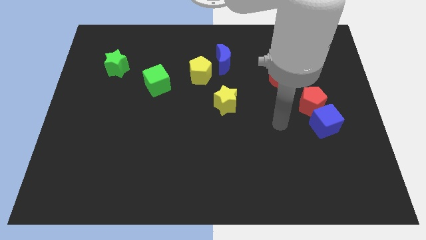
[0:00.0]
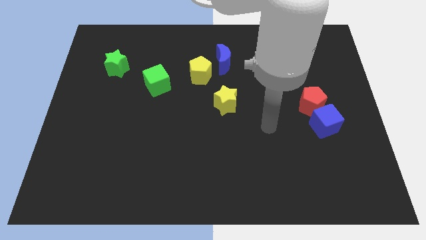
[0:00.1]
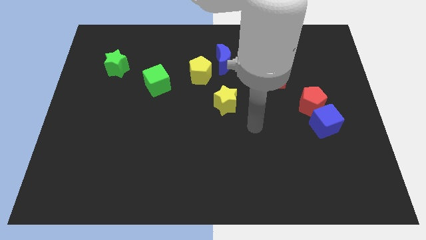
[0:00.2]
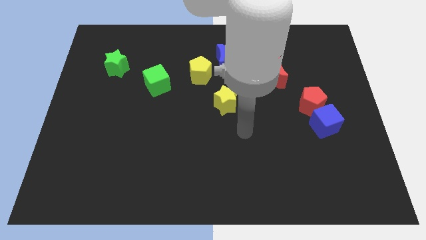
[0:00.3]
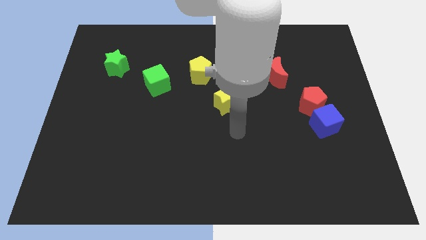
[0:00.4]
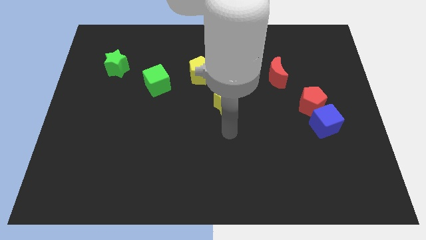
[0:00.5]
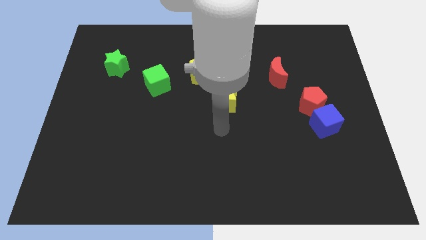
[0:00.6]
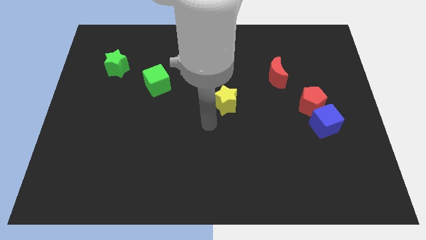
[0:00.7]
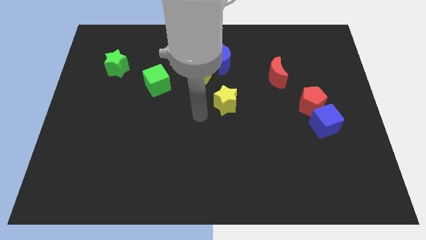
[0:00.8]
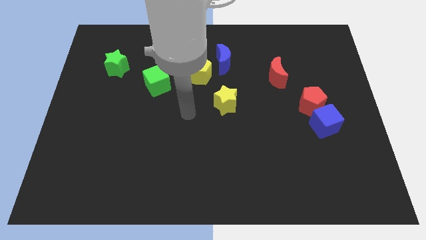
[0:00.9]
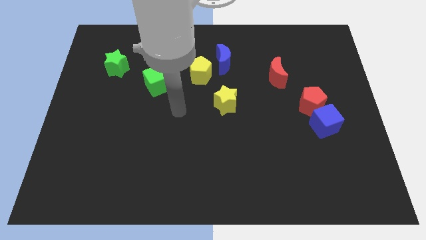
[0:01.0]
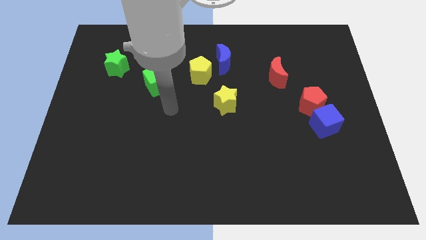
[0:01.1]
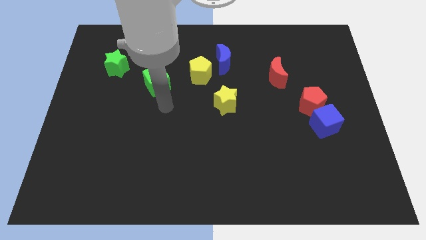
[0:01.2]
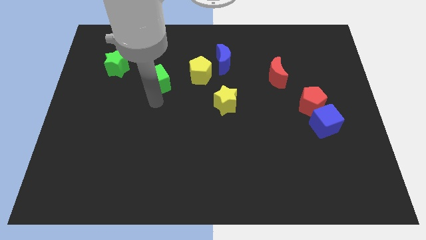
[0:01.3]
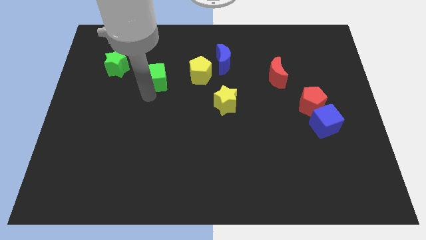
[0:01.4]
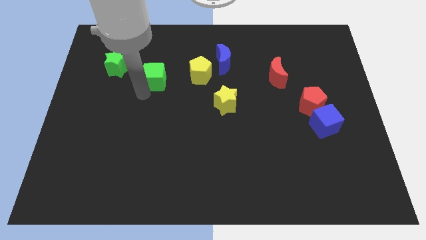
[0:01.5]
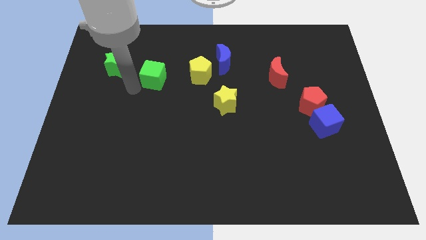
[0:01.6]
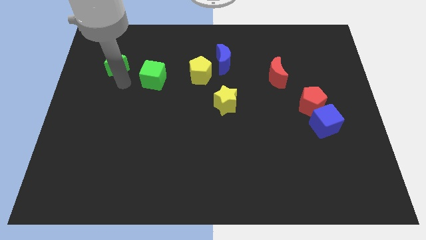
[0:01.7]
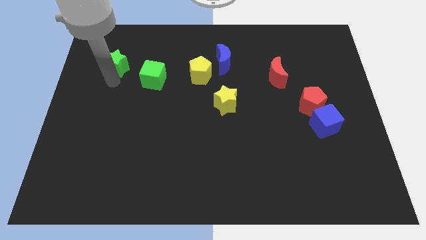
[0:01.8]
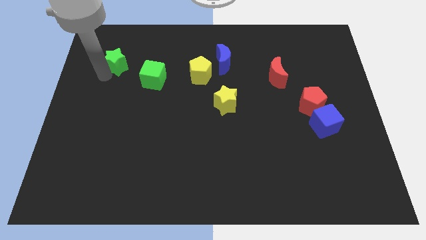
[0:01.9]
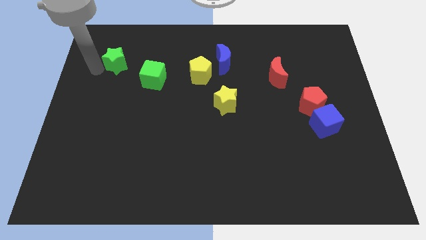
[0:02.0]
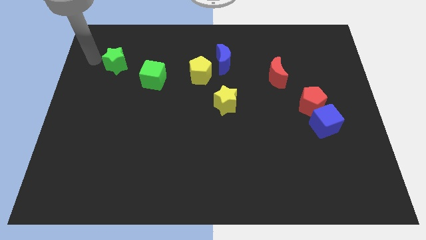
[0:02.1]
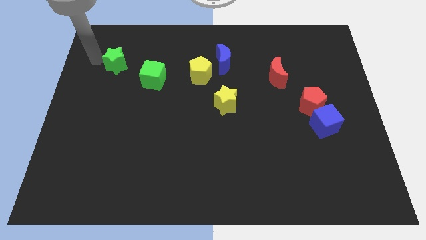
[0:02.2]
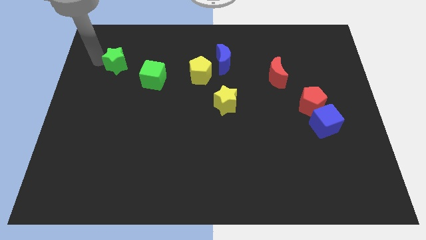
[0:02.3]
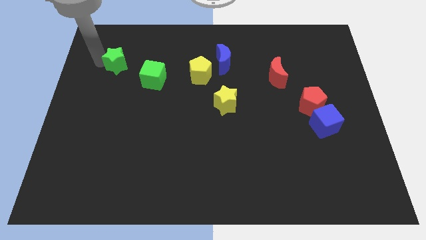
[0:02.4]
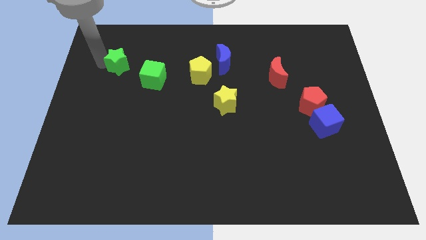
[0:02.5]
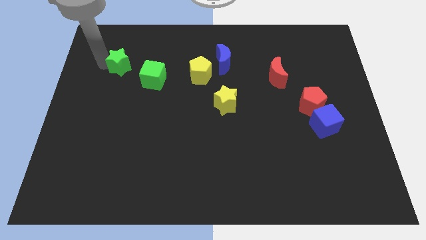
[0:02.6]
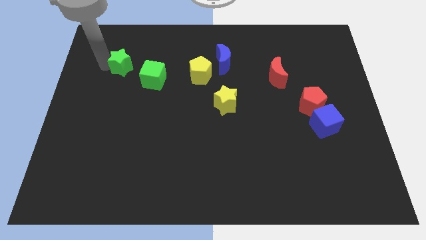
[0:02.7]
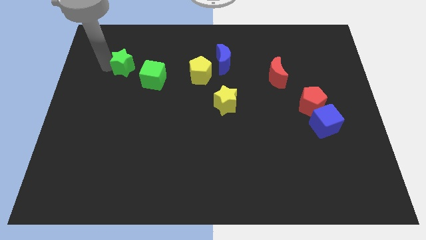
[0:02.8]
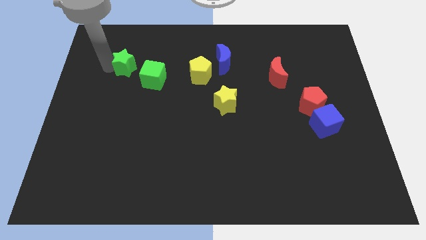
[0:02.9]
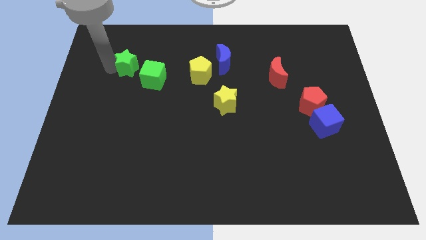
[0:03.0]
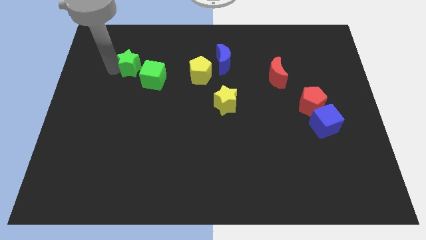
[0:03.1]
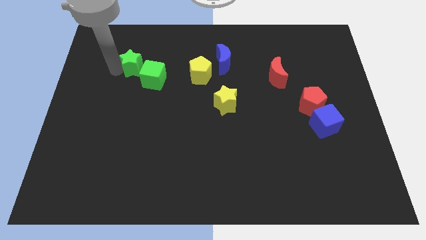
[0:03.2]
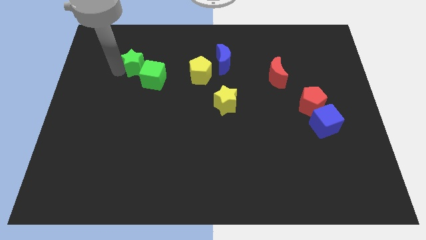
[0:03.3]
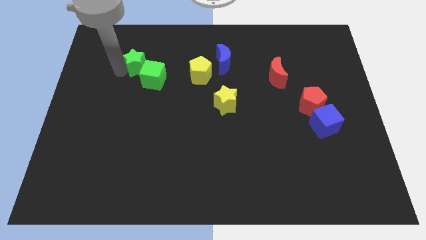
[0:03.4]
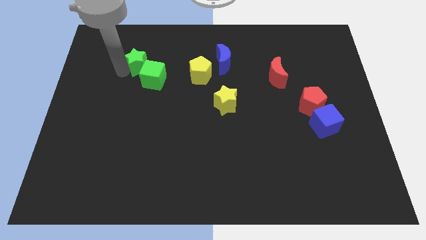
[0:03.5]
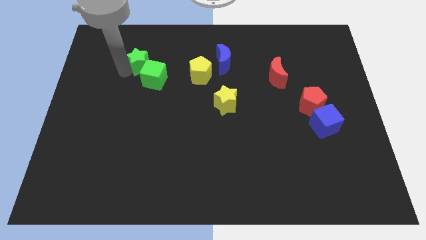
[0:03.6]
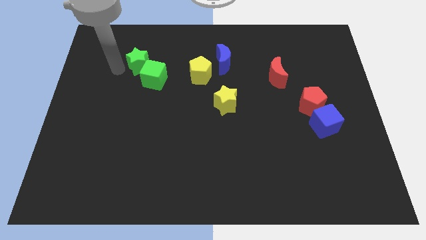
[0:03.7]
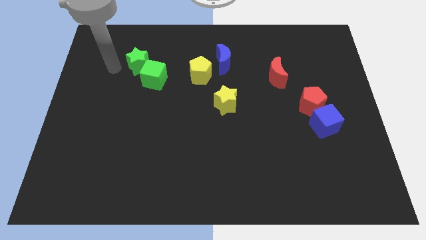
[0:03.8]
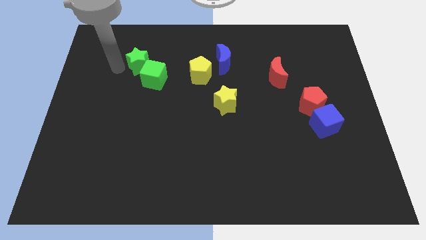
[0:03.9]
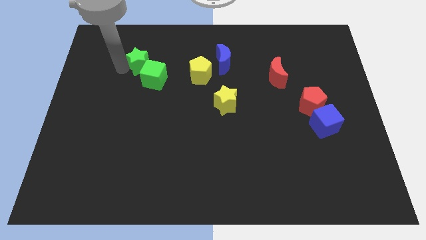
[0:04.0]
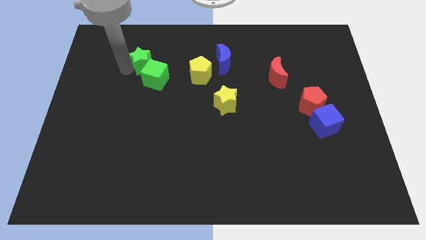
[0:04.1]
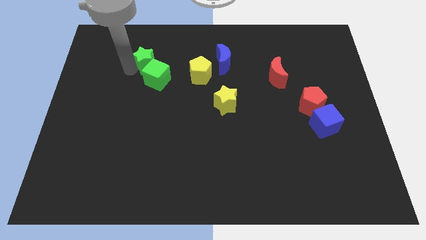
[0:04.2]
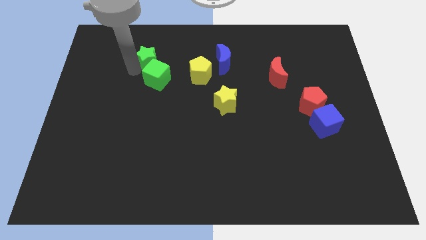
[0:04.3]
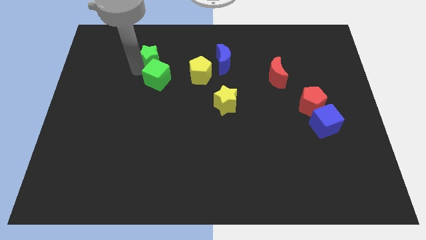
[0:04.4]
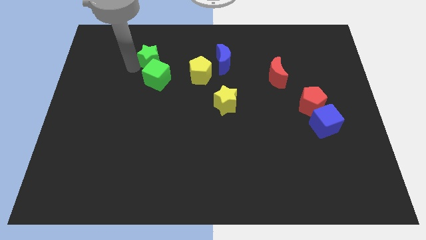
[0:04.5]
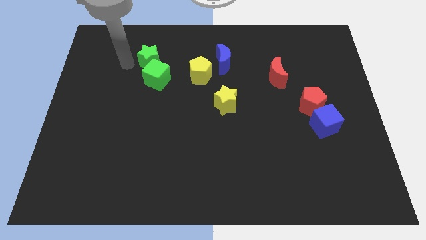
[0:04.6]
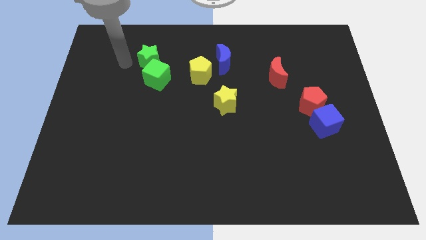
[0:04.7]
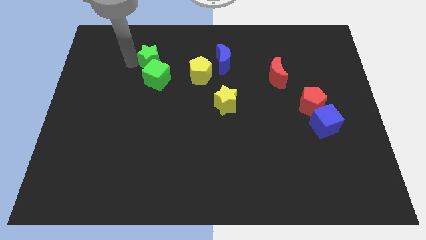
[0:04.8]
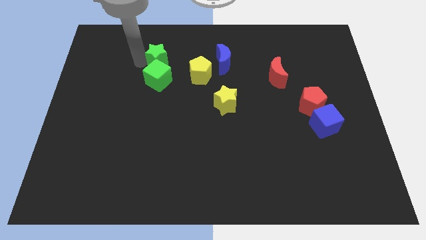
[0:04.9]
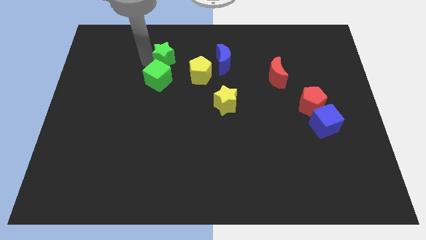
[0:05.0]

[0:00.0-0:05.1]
move the green star diagonally up and to the left of the yellow pentagon

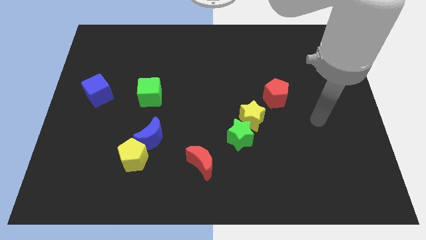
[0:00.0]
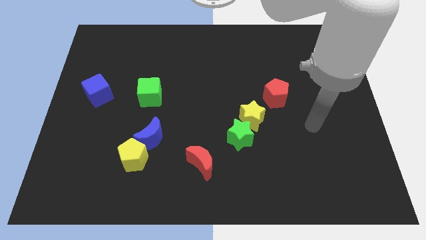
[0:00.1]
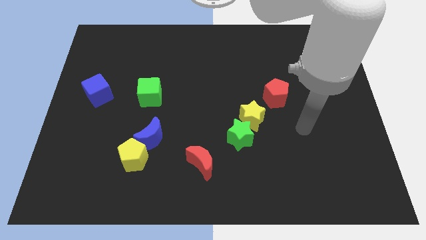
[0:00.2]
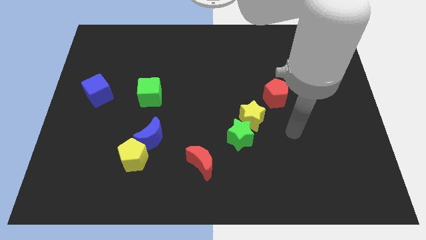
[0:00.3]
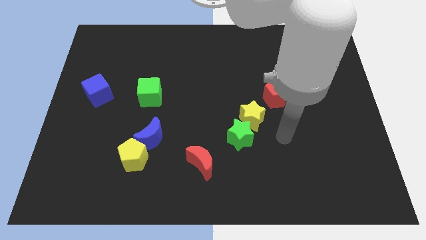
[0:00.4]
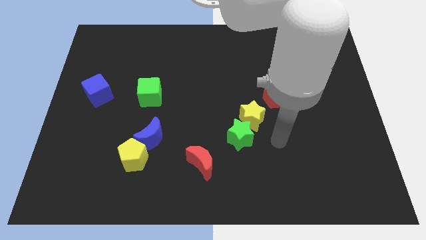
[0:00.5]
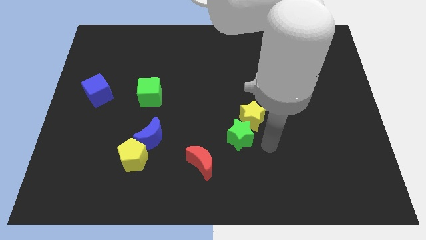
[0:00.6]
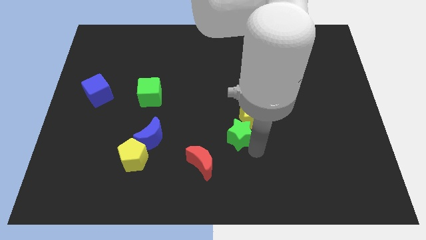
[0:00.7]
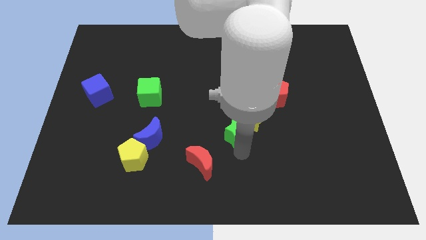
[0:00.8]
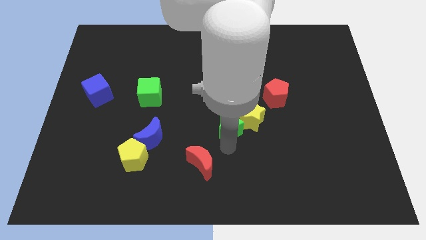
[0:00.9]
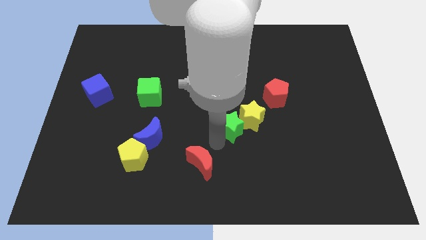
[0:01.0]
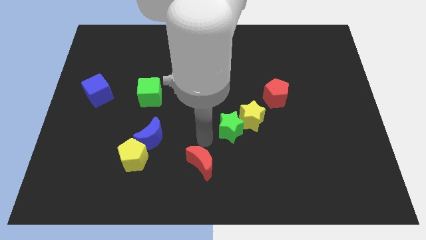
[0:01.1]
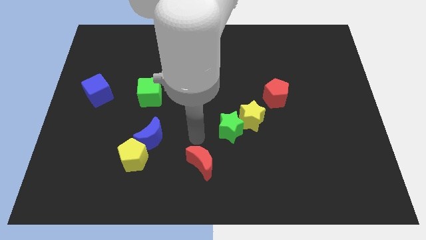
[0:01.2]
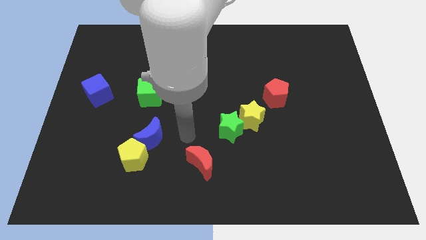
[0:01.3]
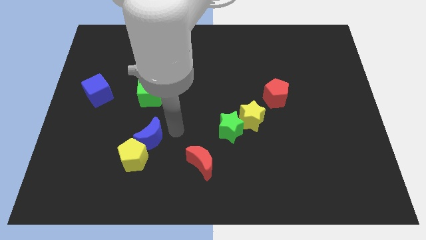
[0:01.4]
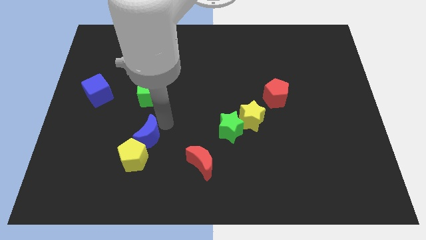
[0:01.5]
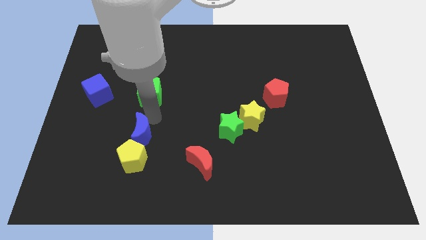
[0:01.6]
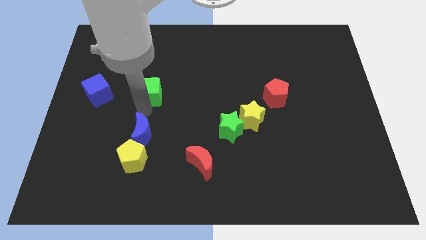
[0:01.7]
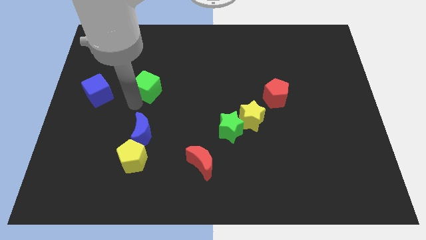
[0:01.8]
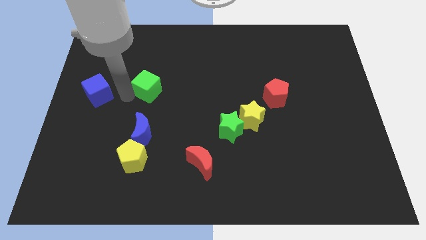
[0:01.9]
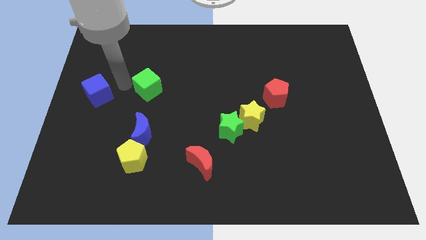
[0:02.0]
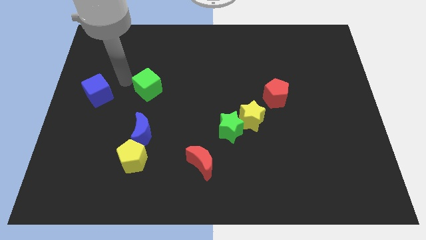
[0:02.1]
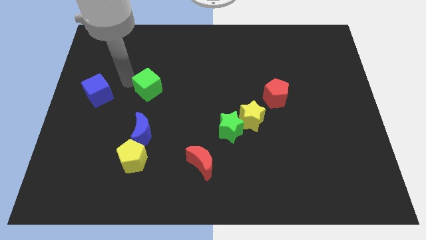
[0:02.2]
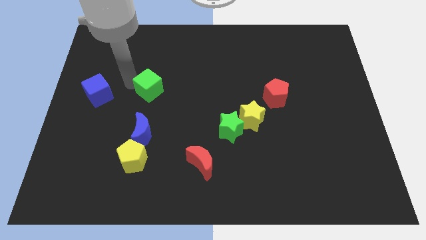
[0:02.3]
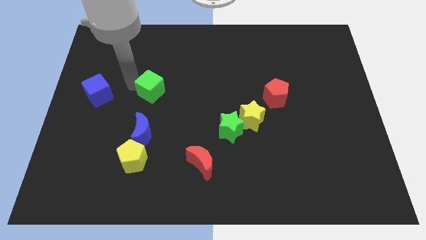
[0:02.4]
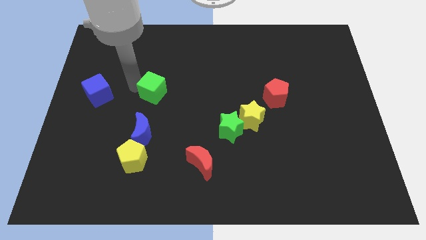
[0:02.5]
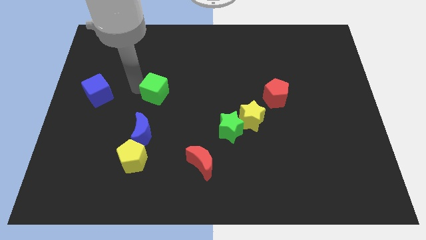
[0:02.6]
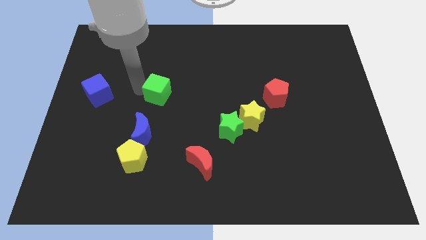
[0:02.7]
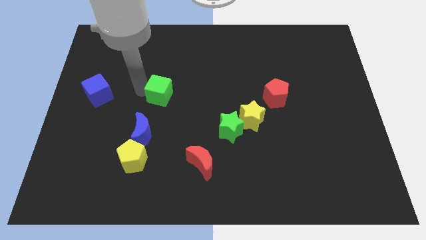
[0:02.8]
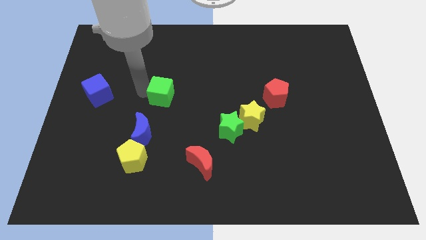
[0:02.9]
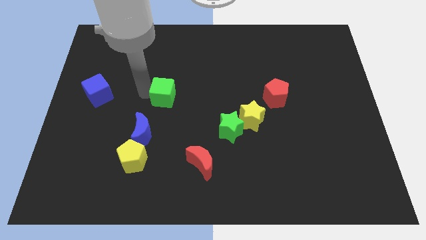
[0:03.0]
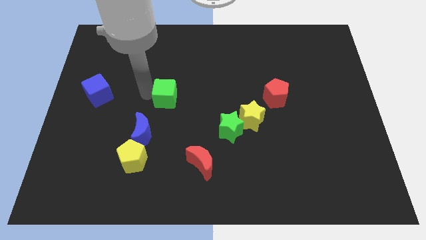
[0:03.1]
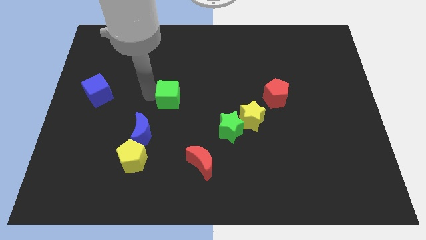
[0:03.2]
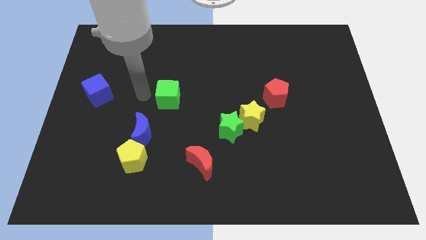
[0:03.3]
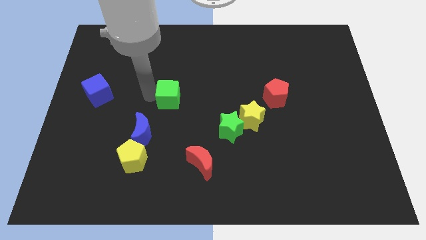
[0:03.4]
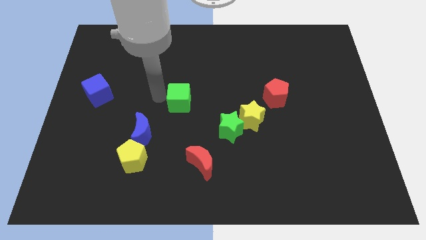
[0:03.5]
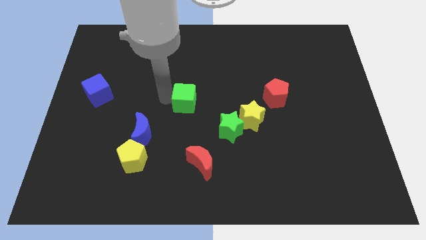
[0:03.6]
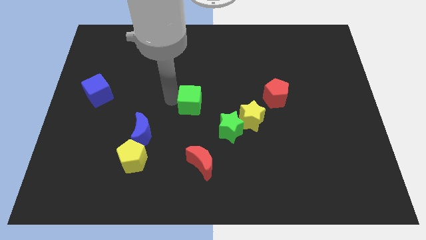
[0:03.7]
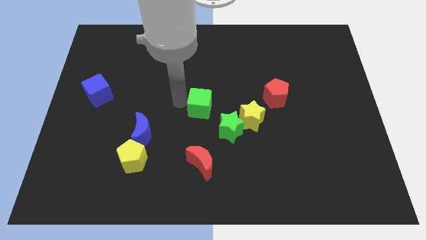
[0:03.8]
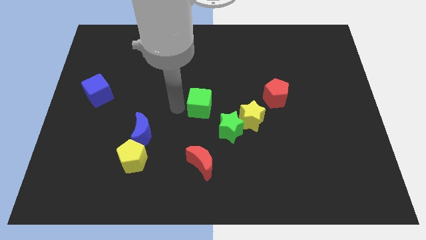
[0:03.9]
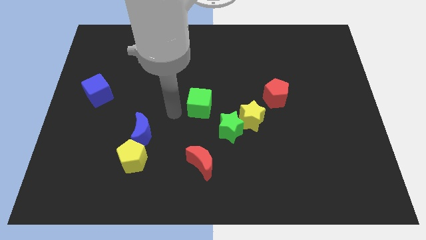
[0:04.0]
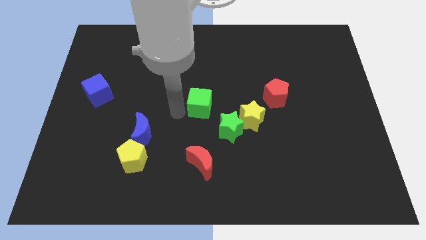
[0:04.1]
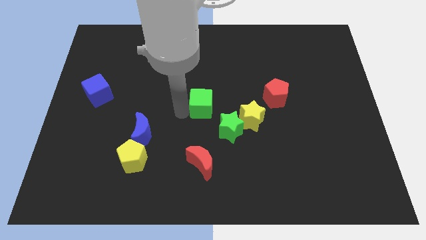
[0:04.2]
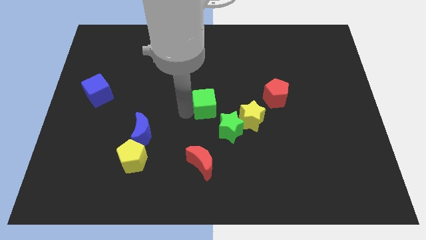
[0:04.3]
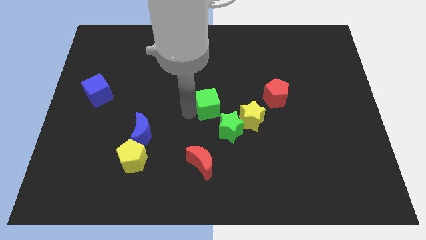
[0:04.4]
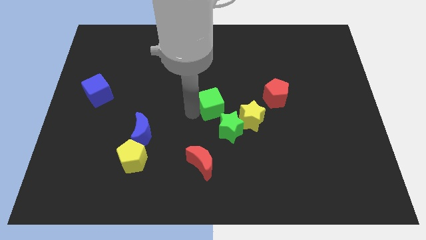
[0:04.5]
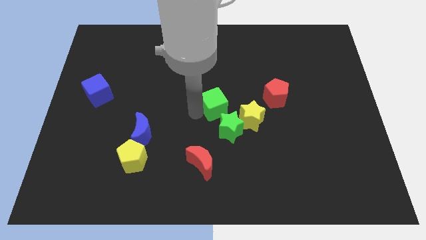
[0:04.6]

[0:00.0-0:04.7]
push the green cube just left of the red pentagon
